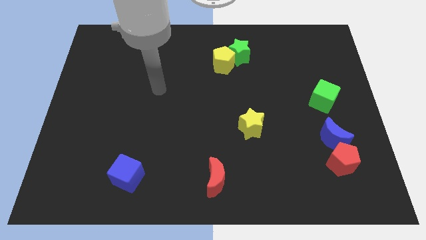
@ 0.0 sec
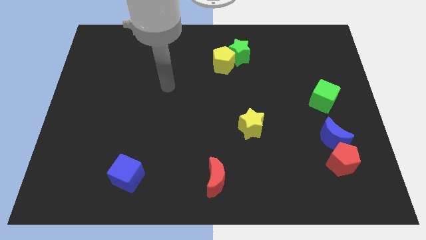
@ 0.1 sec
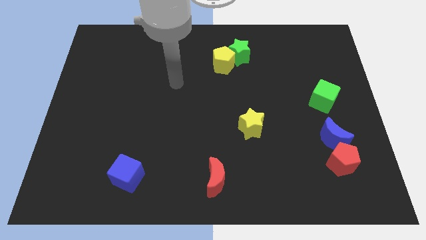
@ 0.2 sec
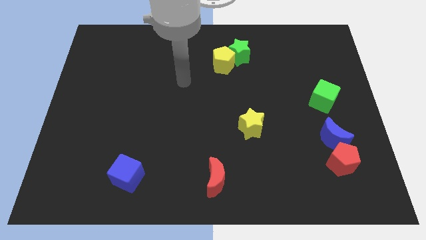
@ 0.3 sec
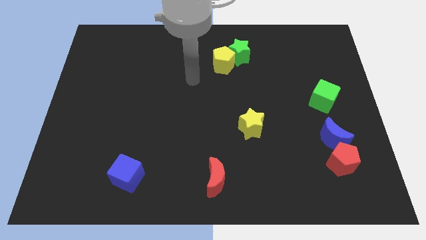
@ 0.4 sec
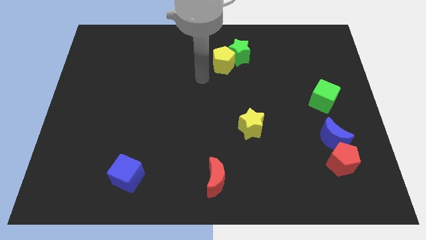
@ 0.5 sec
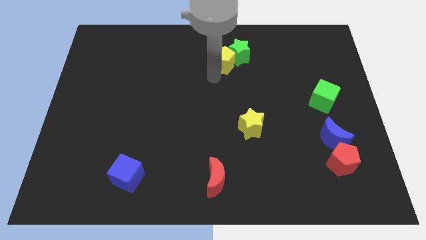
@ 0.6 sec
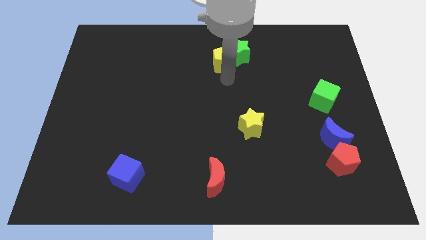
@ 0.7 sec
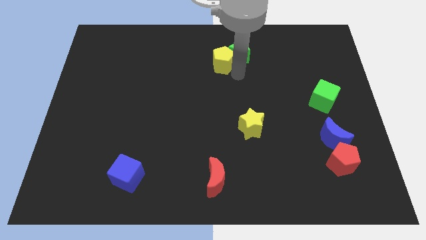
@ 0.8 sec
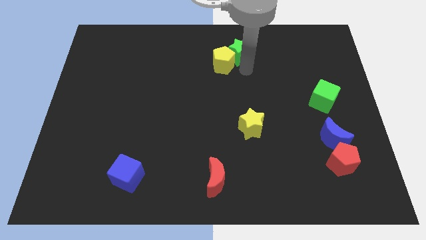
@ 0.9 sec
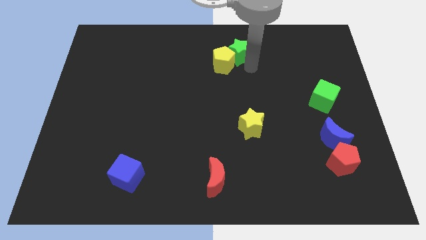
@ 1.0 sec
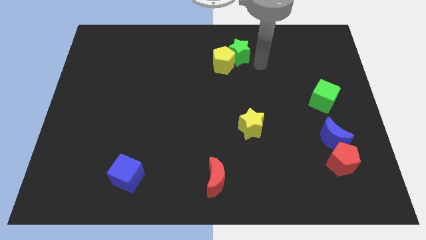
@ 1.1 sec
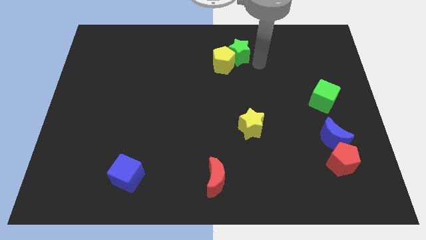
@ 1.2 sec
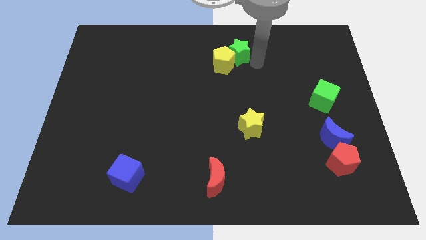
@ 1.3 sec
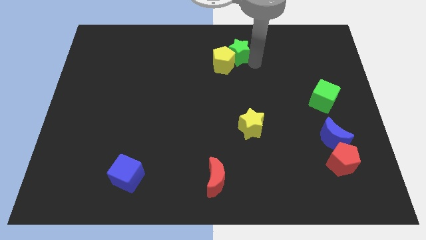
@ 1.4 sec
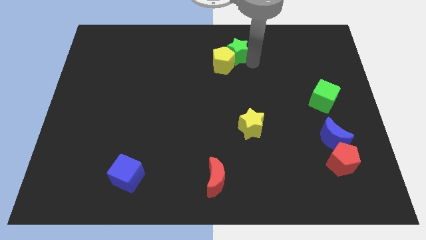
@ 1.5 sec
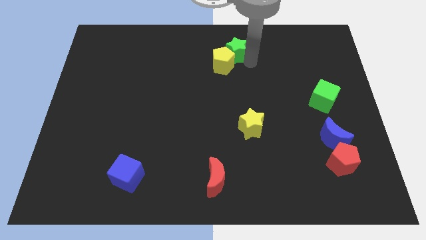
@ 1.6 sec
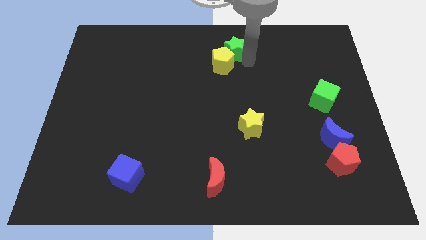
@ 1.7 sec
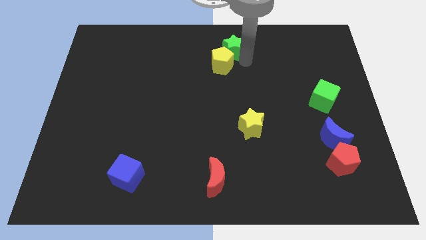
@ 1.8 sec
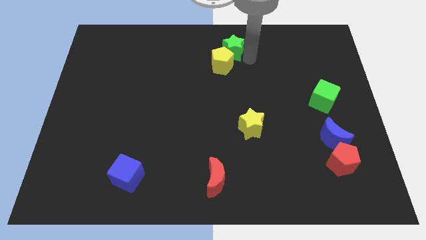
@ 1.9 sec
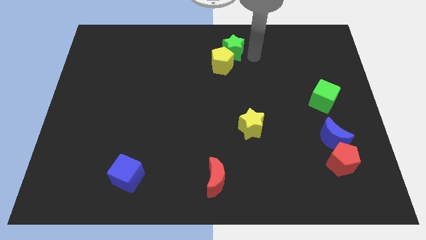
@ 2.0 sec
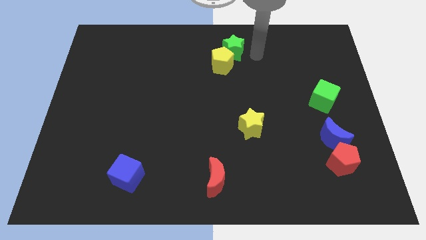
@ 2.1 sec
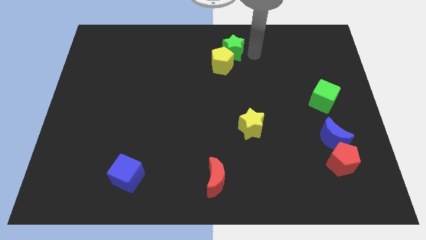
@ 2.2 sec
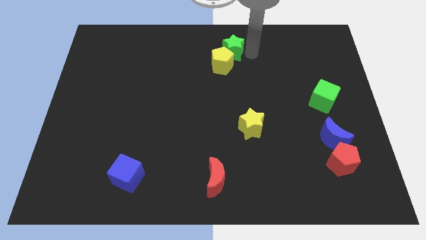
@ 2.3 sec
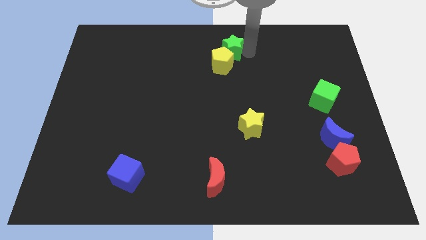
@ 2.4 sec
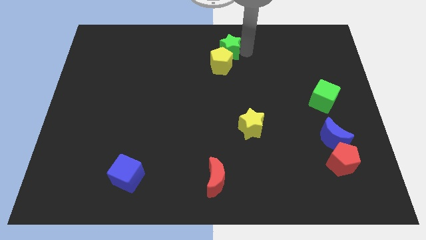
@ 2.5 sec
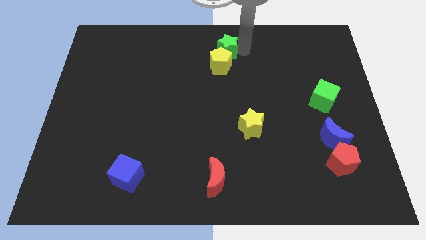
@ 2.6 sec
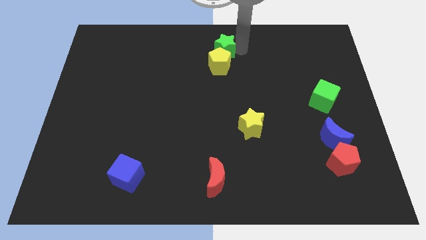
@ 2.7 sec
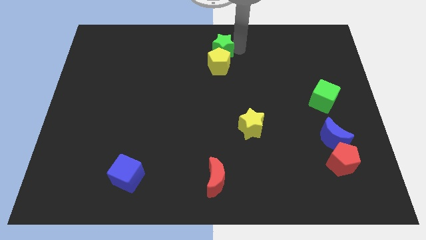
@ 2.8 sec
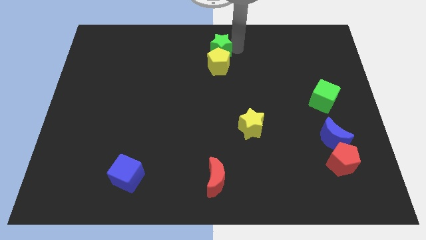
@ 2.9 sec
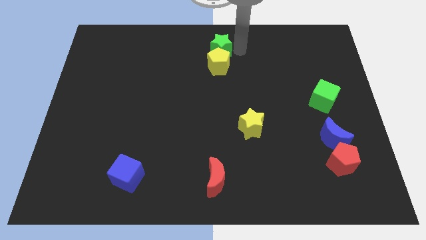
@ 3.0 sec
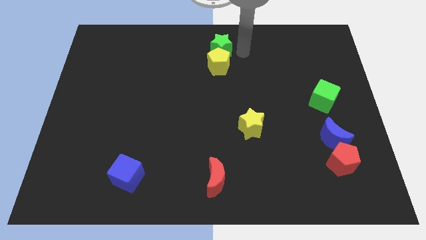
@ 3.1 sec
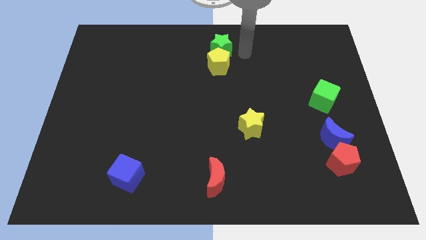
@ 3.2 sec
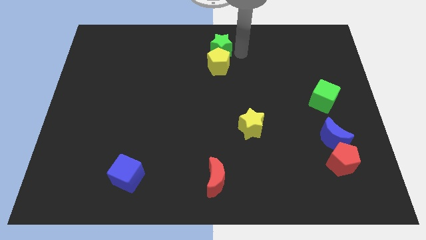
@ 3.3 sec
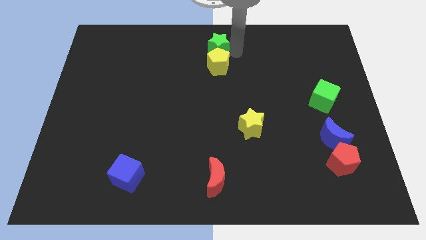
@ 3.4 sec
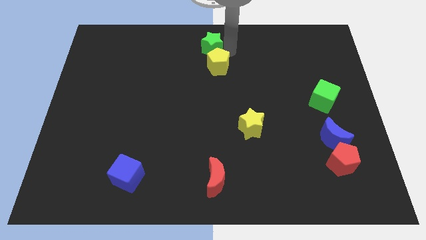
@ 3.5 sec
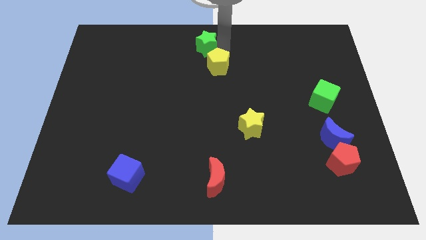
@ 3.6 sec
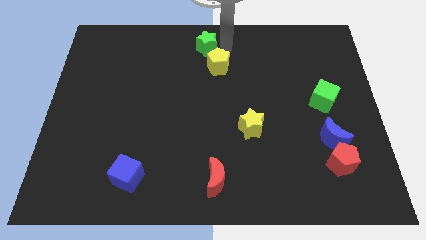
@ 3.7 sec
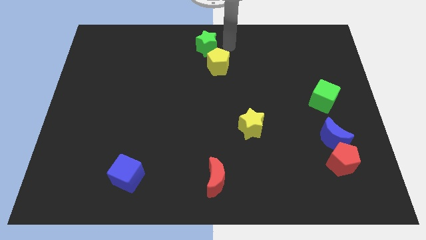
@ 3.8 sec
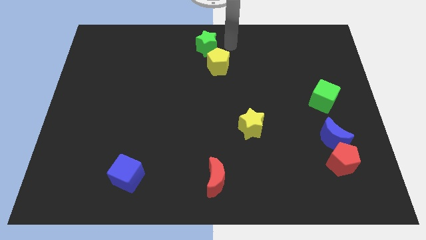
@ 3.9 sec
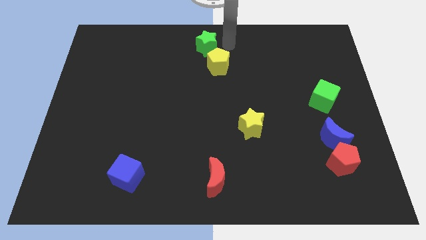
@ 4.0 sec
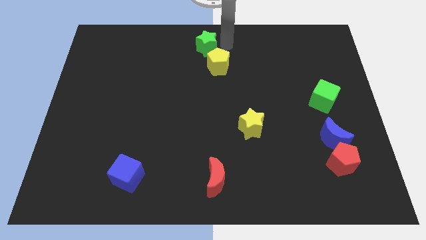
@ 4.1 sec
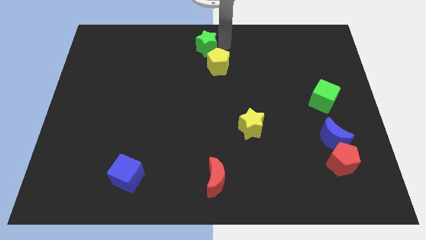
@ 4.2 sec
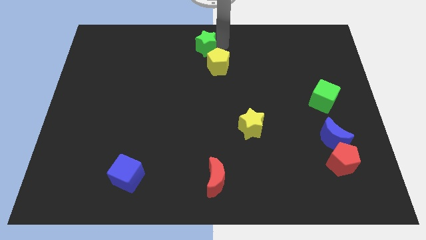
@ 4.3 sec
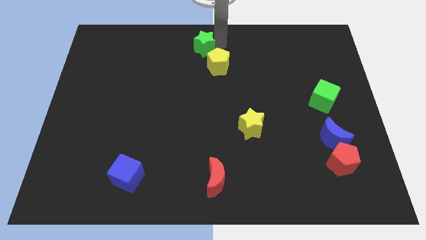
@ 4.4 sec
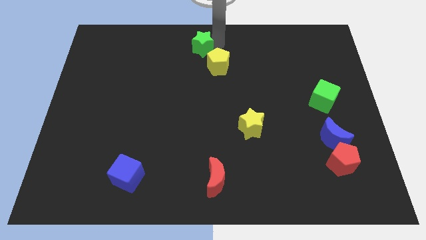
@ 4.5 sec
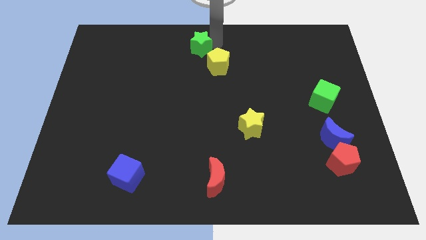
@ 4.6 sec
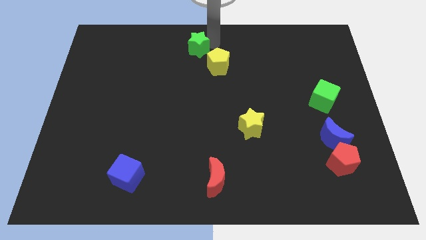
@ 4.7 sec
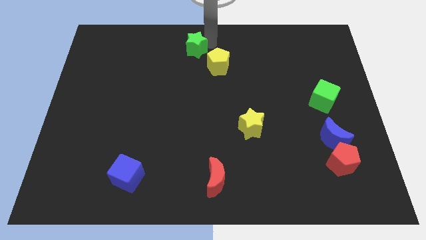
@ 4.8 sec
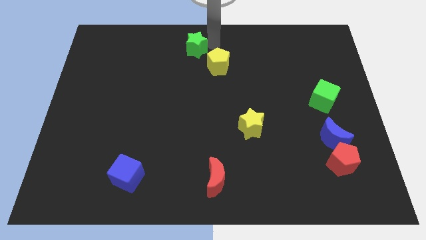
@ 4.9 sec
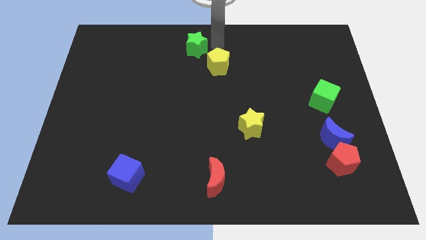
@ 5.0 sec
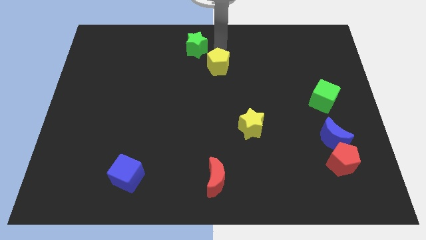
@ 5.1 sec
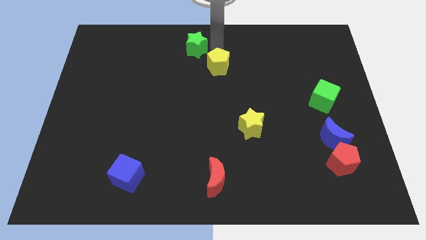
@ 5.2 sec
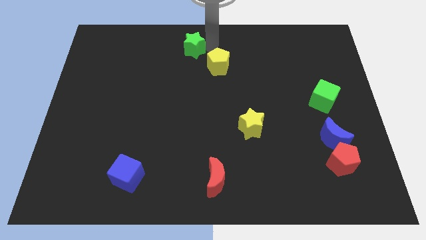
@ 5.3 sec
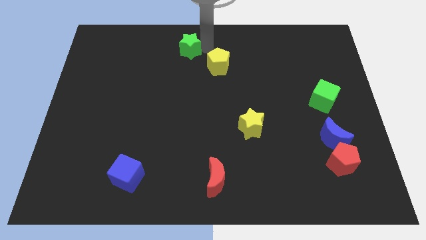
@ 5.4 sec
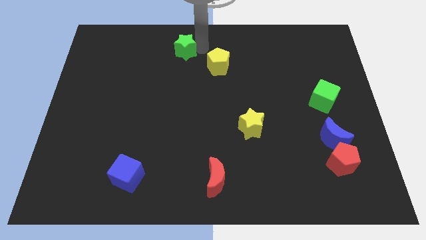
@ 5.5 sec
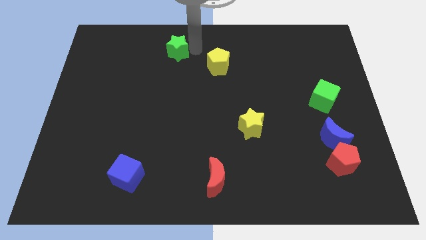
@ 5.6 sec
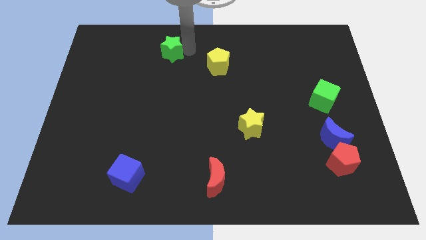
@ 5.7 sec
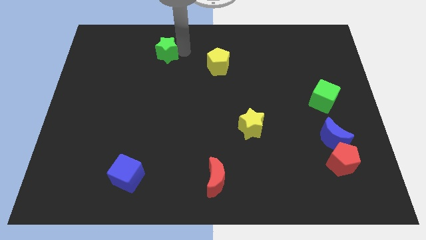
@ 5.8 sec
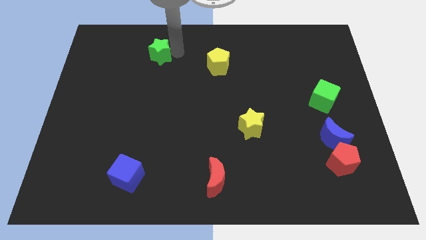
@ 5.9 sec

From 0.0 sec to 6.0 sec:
move the green star to the left

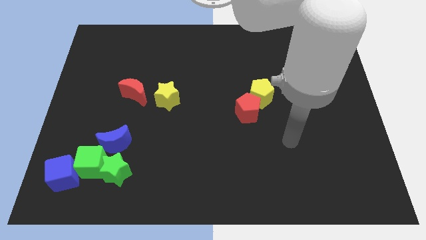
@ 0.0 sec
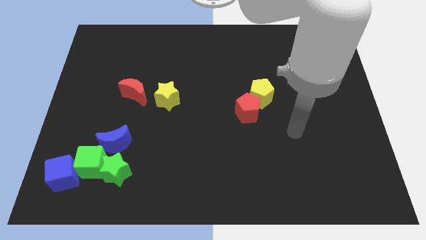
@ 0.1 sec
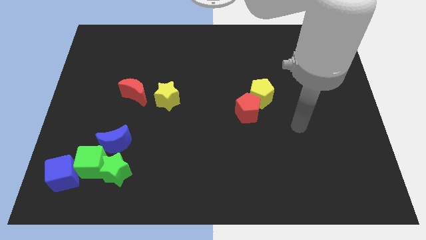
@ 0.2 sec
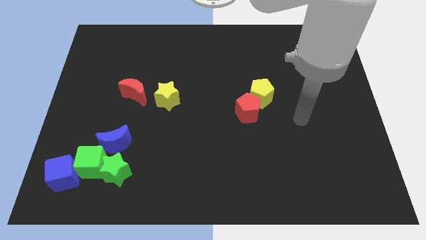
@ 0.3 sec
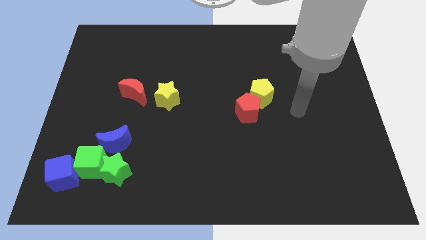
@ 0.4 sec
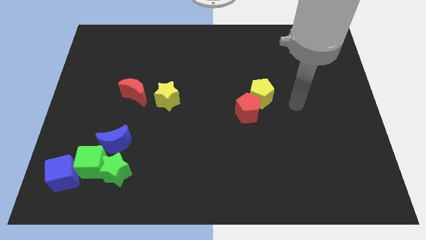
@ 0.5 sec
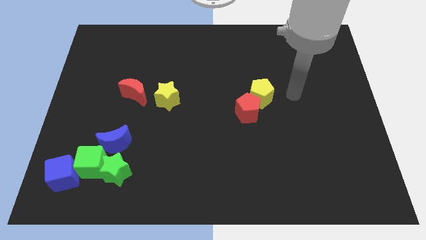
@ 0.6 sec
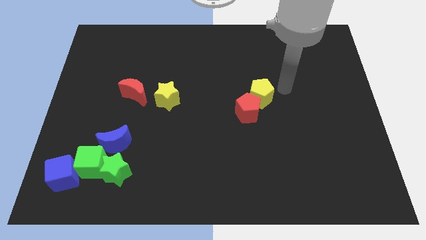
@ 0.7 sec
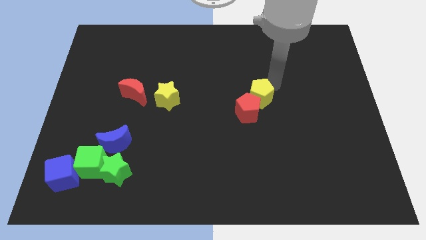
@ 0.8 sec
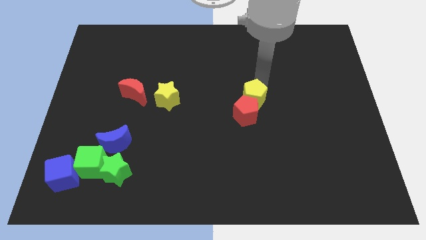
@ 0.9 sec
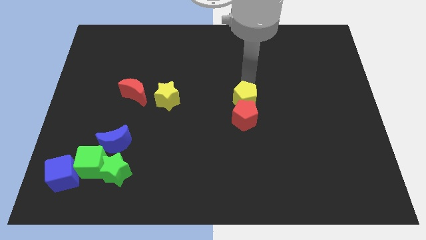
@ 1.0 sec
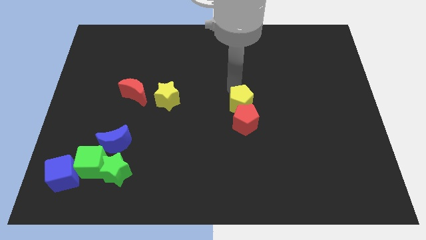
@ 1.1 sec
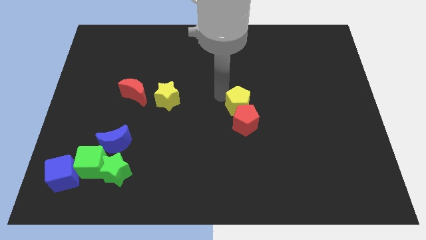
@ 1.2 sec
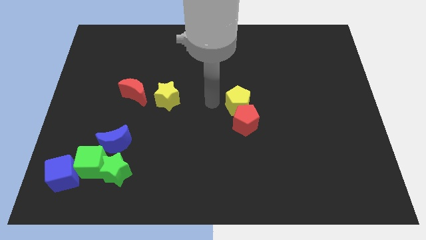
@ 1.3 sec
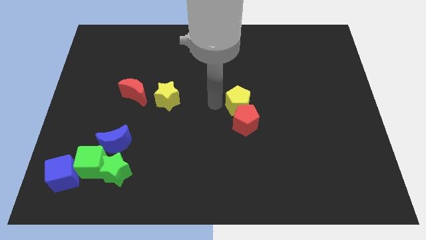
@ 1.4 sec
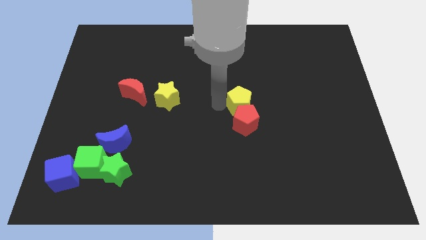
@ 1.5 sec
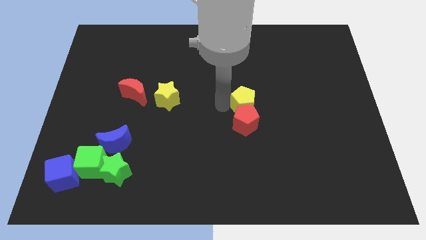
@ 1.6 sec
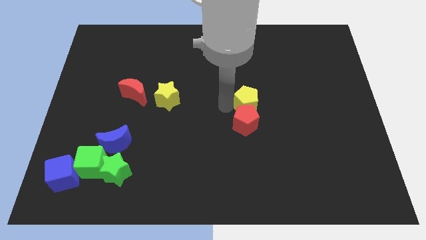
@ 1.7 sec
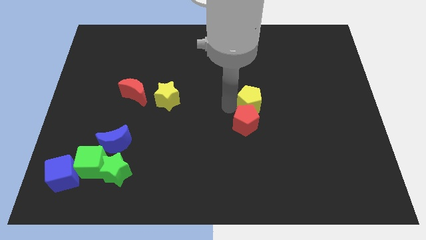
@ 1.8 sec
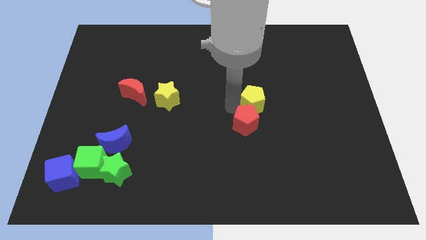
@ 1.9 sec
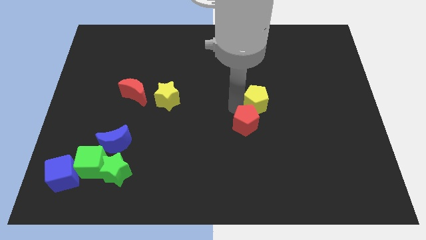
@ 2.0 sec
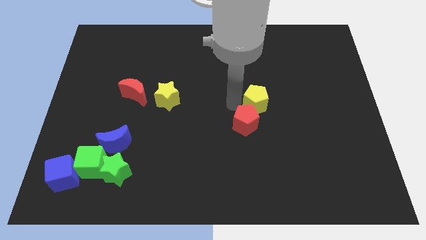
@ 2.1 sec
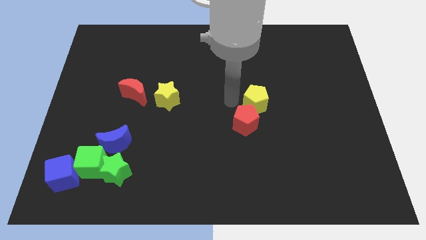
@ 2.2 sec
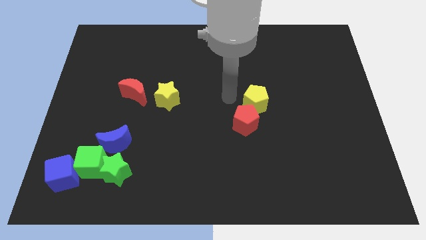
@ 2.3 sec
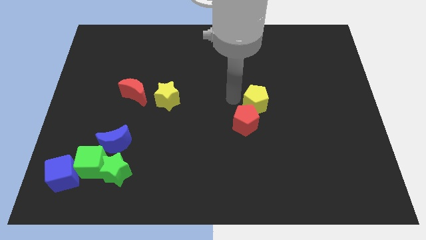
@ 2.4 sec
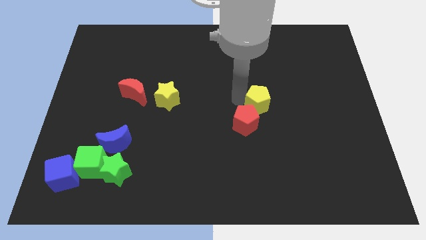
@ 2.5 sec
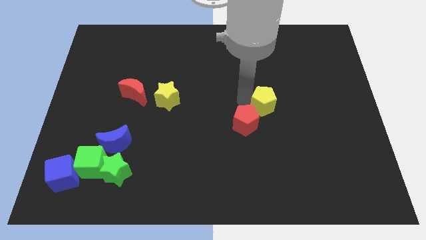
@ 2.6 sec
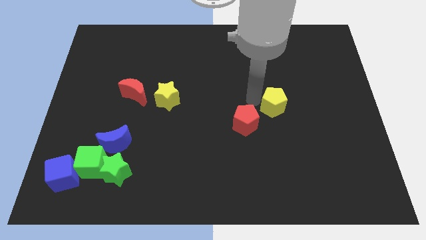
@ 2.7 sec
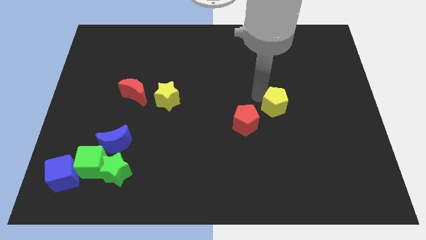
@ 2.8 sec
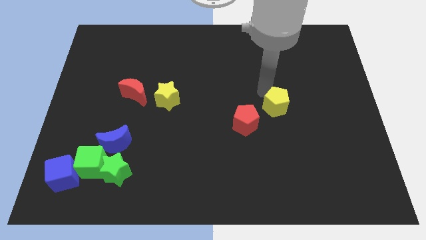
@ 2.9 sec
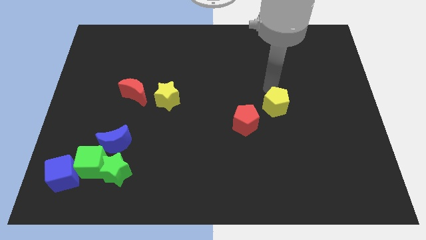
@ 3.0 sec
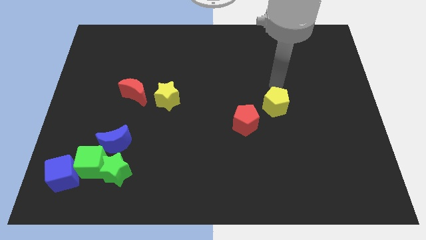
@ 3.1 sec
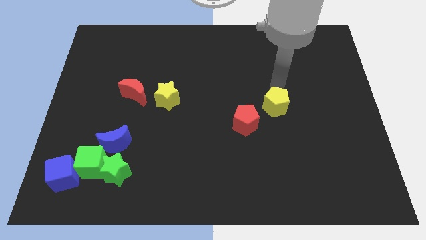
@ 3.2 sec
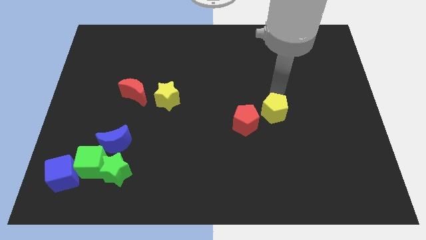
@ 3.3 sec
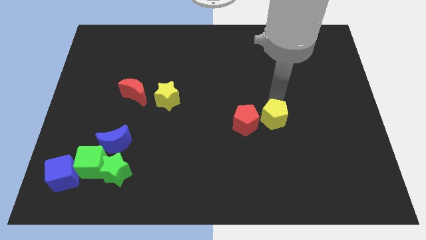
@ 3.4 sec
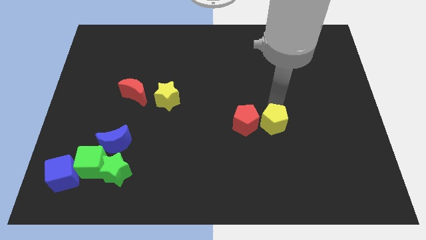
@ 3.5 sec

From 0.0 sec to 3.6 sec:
slide the yellow pentagon somewhat down
